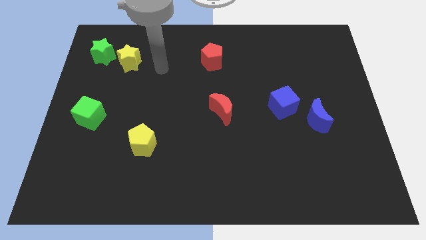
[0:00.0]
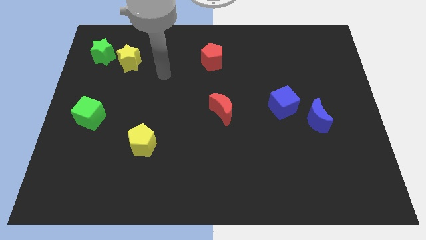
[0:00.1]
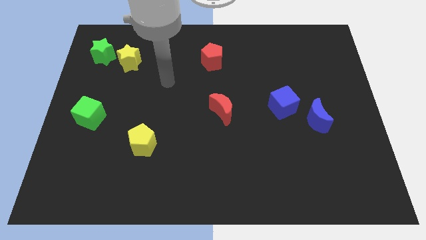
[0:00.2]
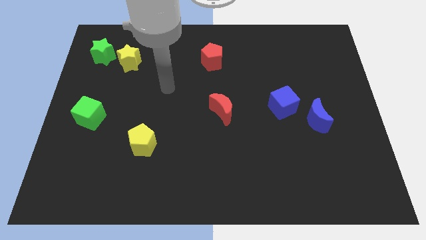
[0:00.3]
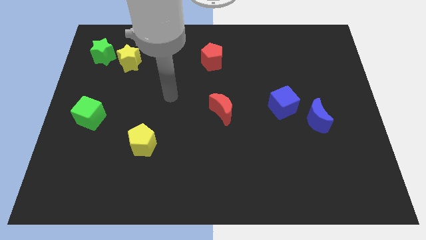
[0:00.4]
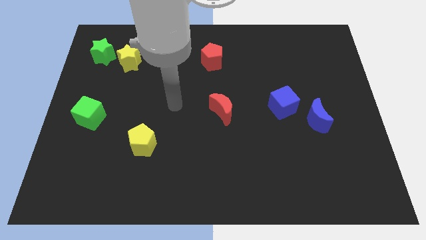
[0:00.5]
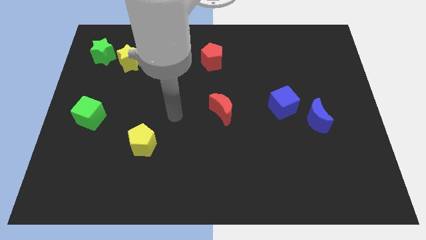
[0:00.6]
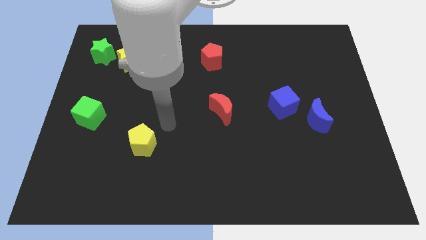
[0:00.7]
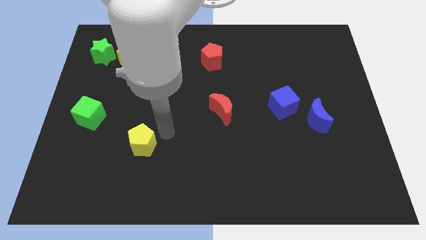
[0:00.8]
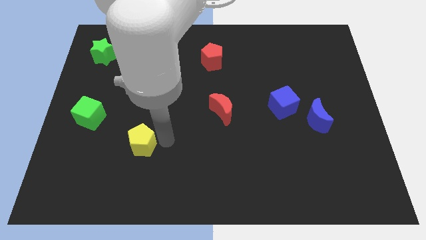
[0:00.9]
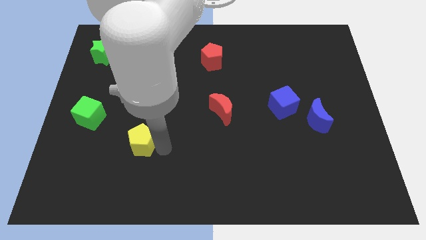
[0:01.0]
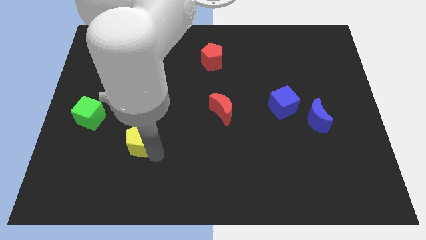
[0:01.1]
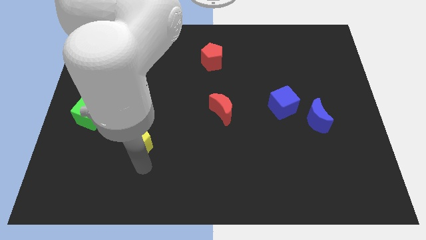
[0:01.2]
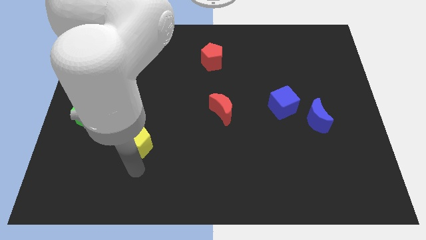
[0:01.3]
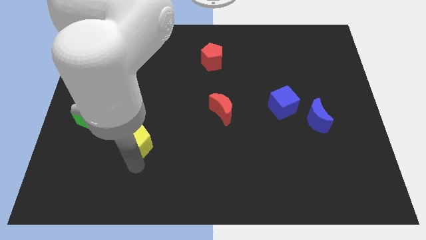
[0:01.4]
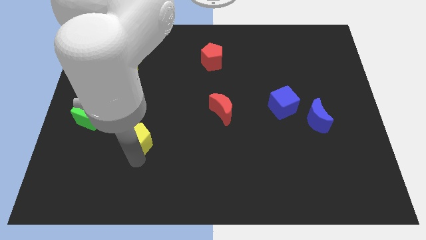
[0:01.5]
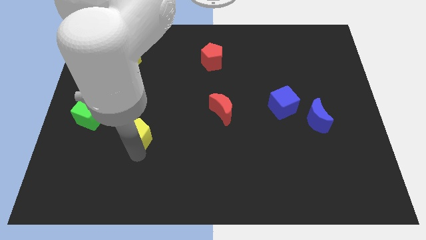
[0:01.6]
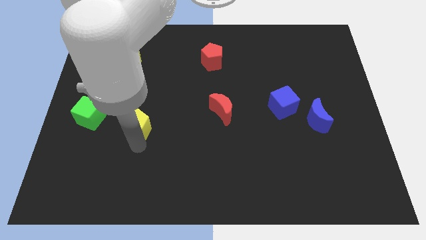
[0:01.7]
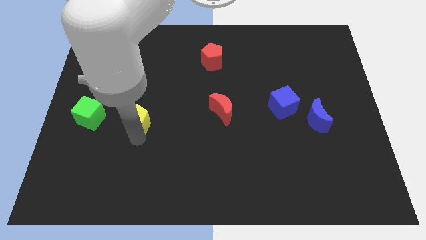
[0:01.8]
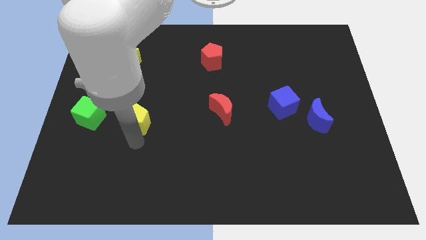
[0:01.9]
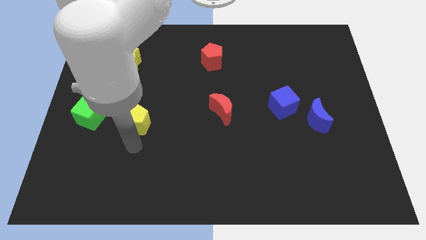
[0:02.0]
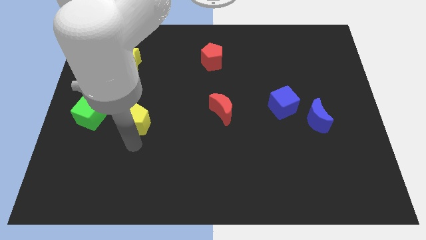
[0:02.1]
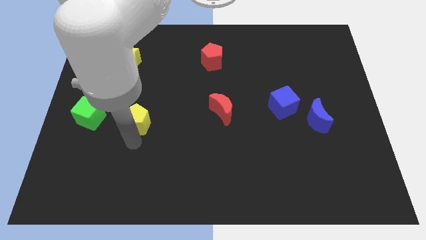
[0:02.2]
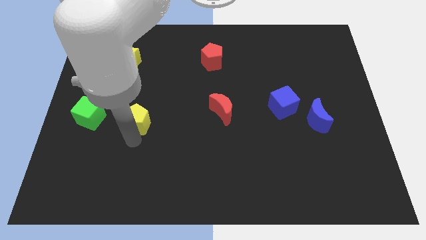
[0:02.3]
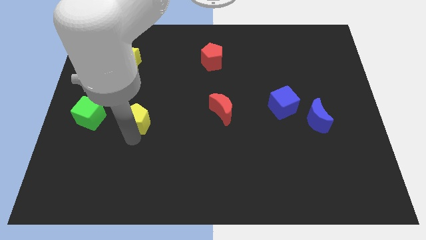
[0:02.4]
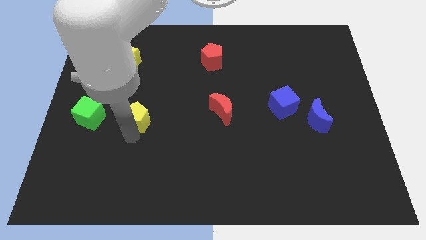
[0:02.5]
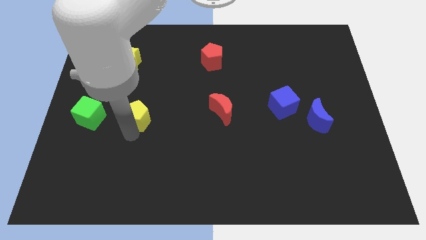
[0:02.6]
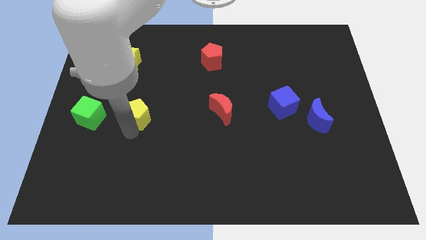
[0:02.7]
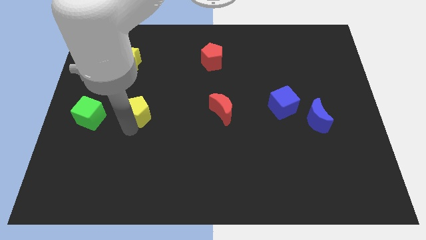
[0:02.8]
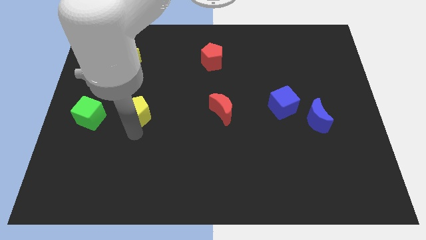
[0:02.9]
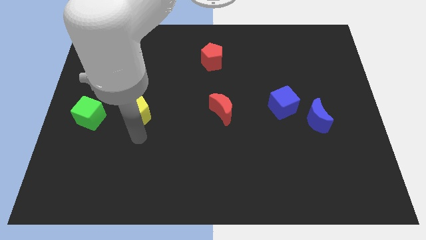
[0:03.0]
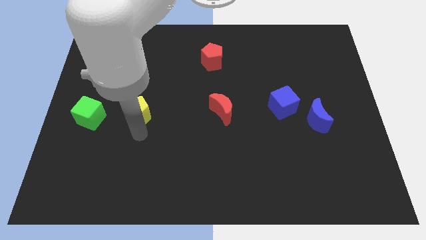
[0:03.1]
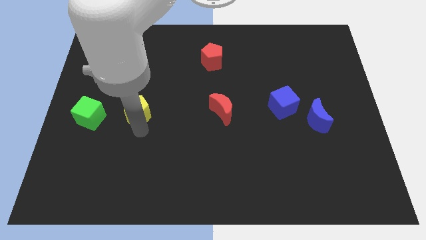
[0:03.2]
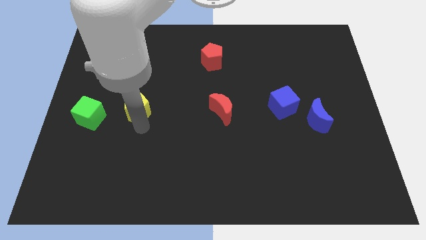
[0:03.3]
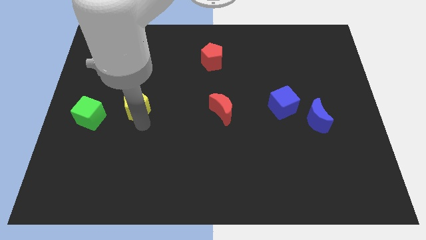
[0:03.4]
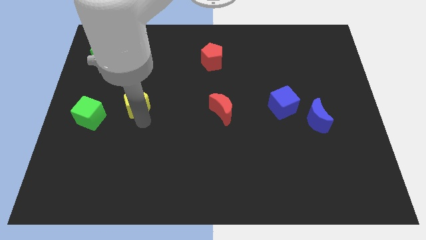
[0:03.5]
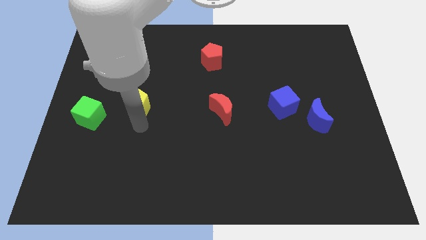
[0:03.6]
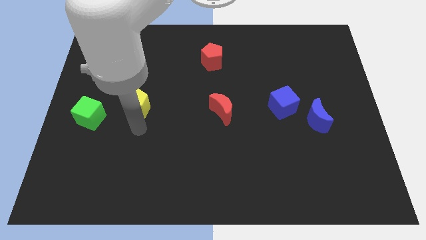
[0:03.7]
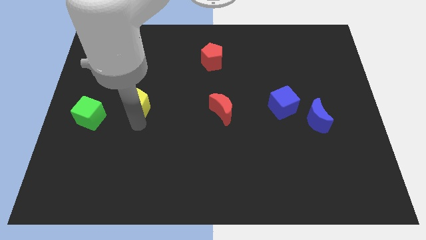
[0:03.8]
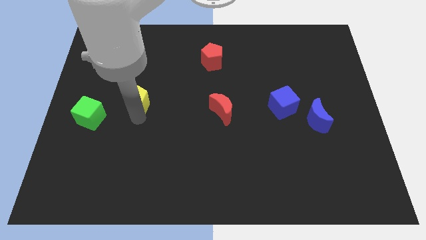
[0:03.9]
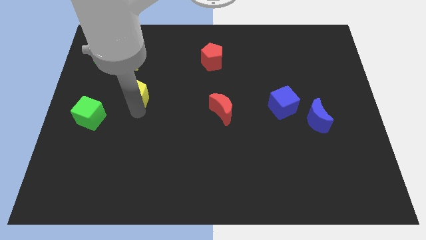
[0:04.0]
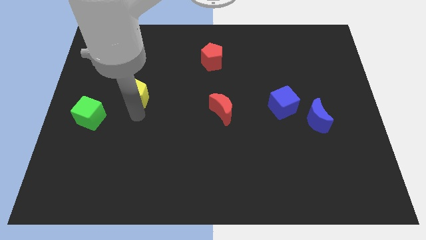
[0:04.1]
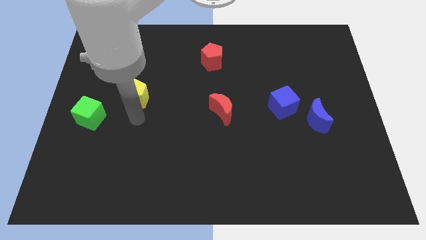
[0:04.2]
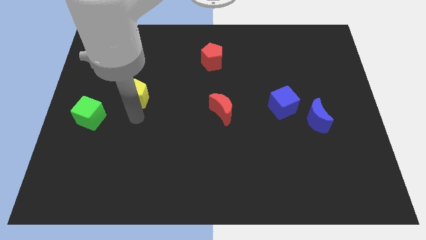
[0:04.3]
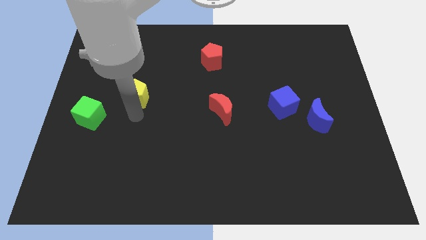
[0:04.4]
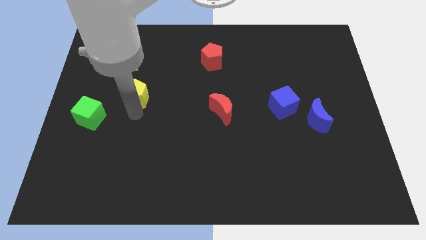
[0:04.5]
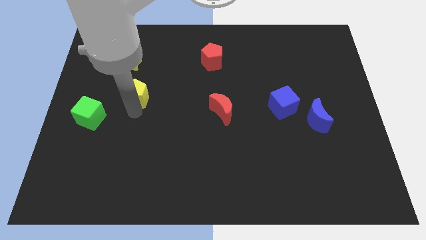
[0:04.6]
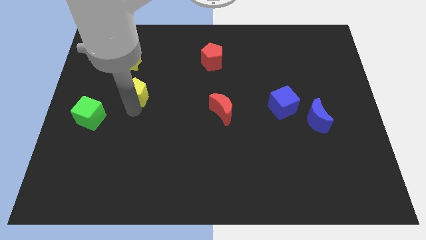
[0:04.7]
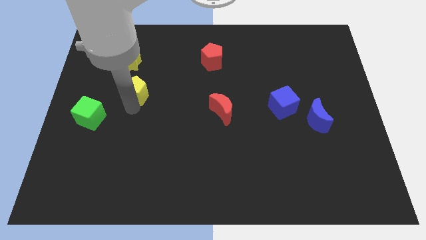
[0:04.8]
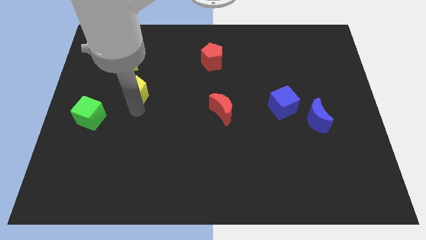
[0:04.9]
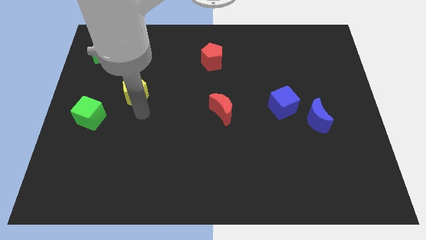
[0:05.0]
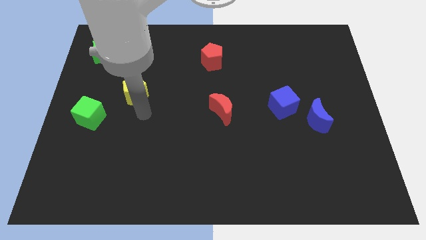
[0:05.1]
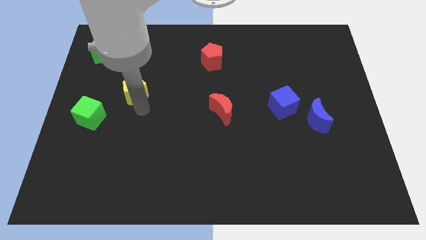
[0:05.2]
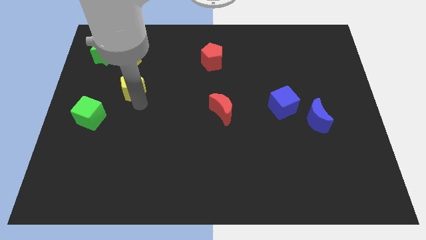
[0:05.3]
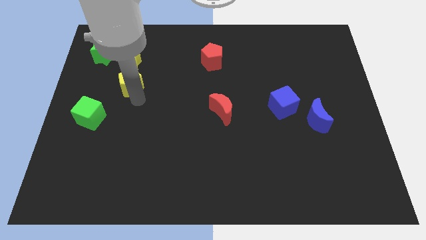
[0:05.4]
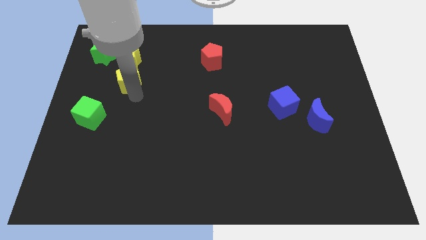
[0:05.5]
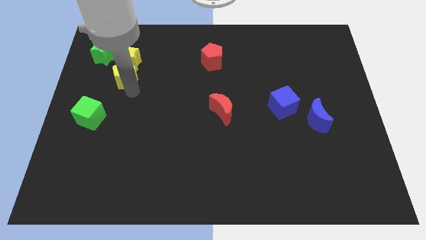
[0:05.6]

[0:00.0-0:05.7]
move the yellow pentagon close to the yellow star

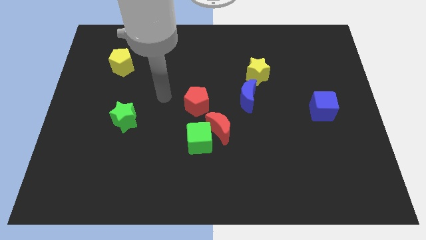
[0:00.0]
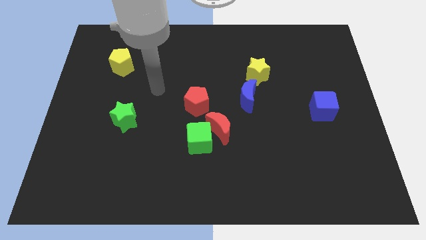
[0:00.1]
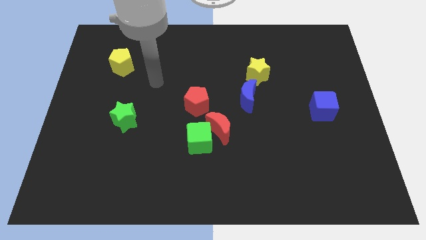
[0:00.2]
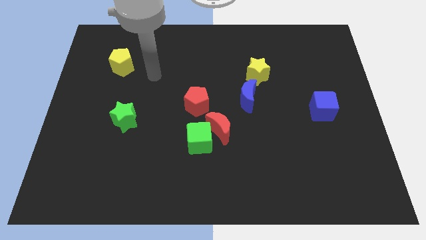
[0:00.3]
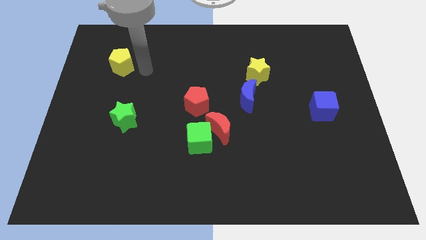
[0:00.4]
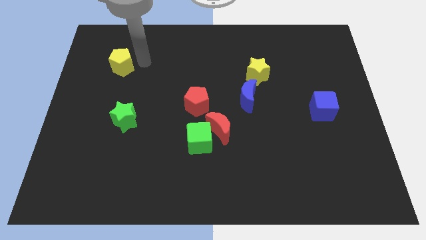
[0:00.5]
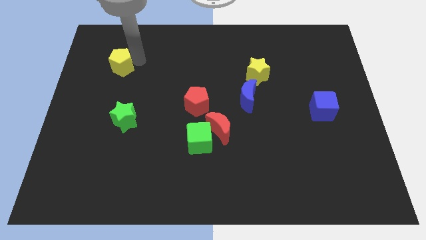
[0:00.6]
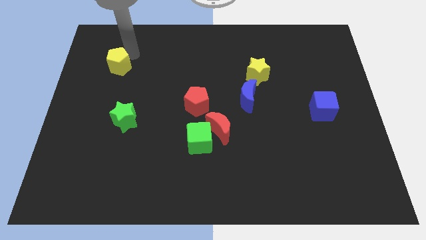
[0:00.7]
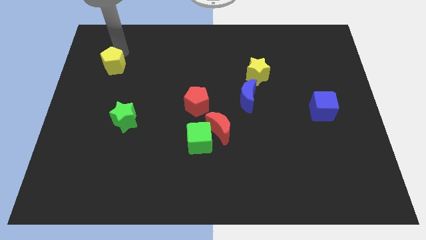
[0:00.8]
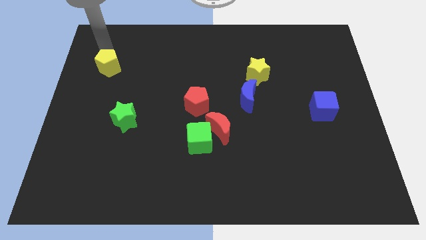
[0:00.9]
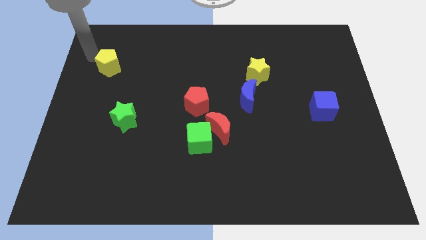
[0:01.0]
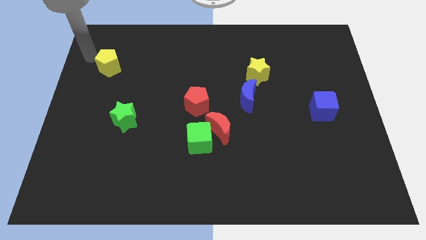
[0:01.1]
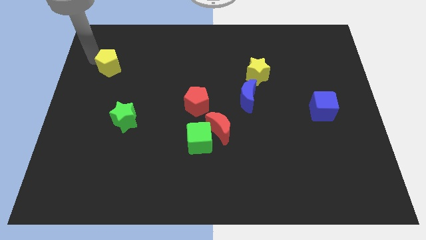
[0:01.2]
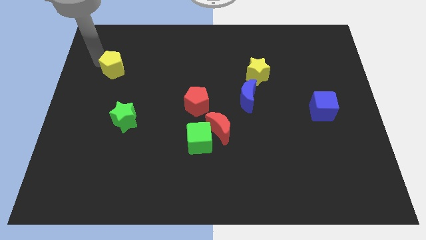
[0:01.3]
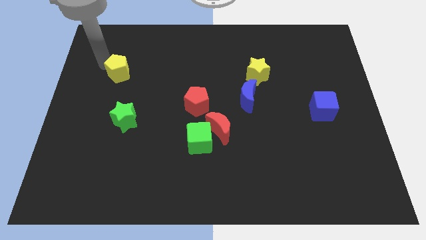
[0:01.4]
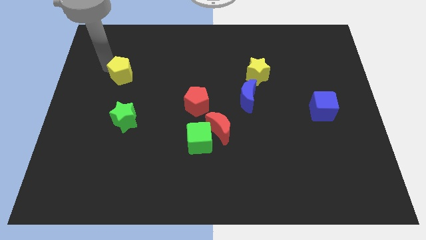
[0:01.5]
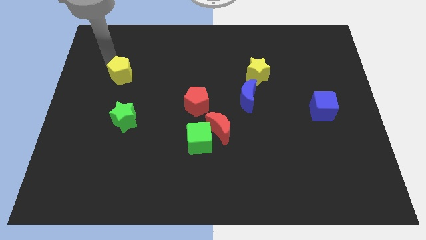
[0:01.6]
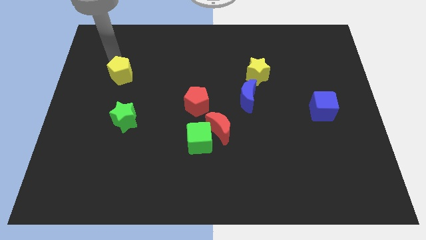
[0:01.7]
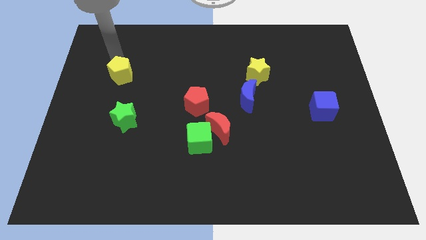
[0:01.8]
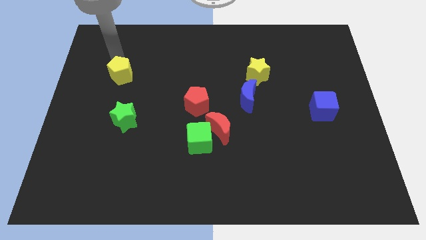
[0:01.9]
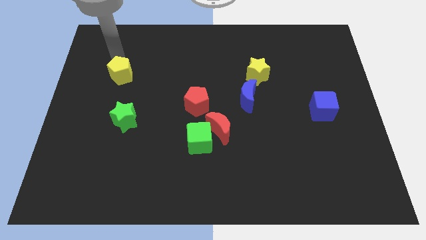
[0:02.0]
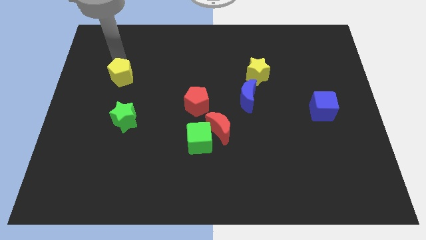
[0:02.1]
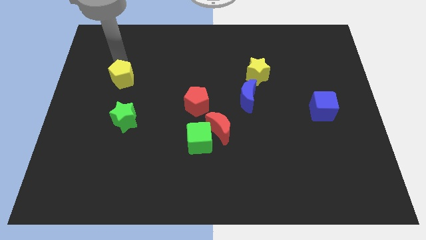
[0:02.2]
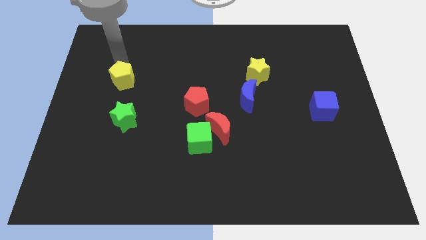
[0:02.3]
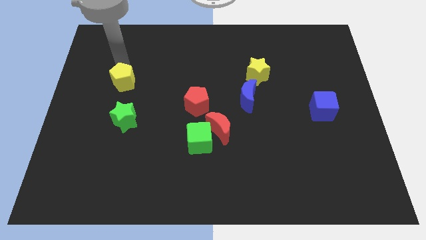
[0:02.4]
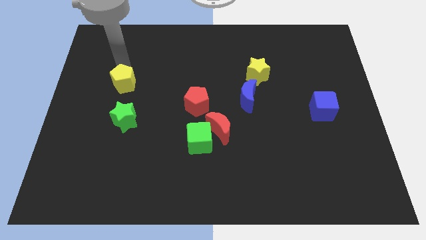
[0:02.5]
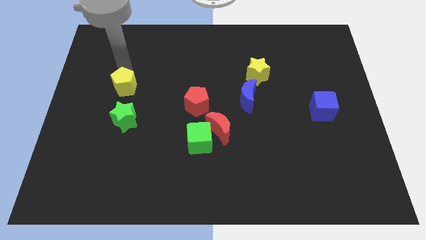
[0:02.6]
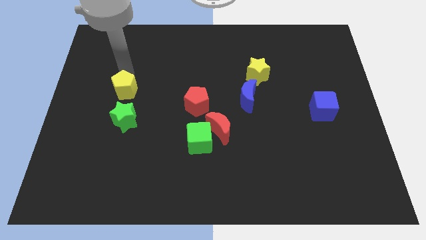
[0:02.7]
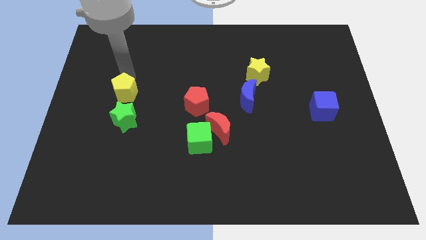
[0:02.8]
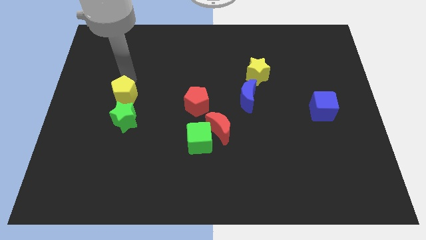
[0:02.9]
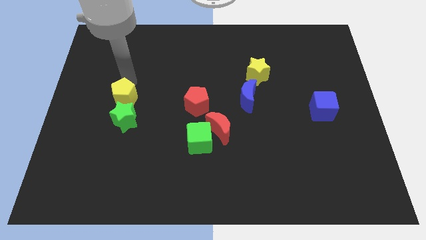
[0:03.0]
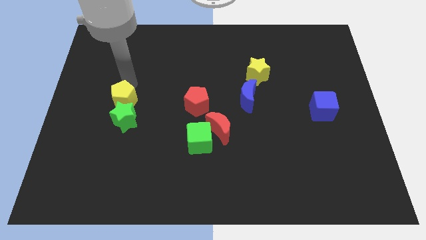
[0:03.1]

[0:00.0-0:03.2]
slide the yellow pentagon towards the green star
